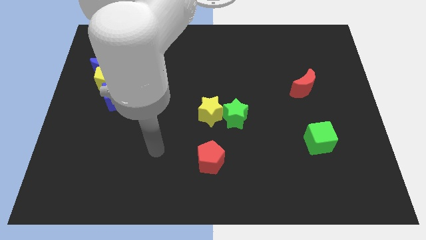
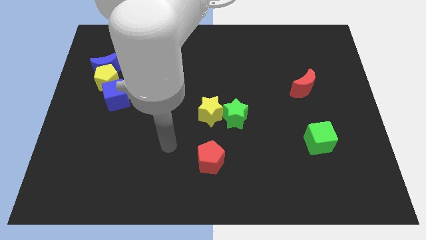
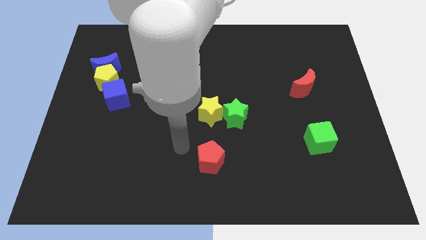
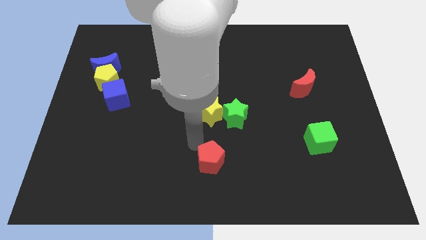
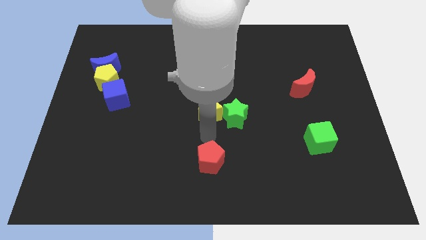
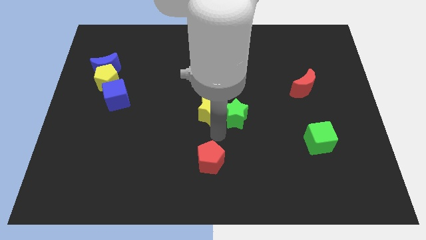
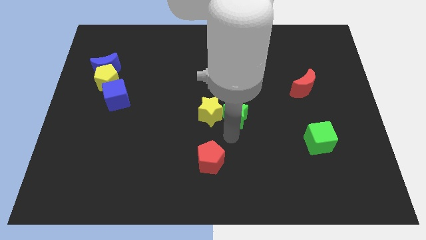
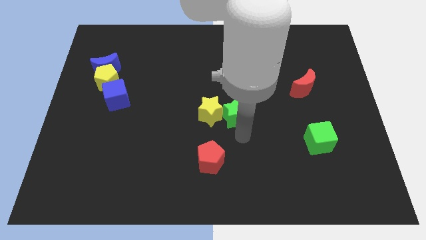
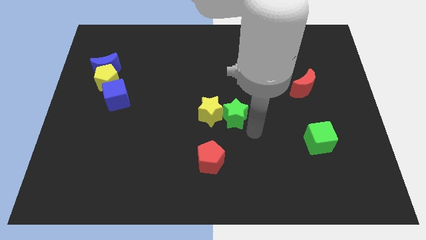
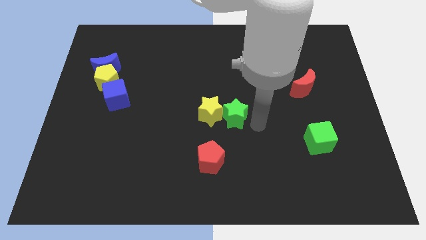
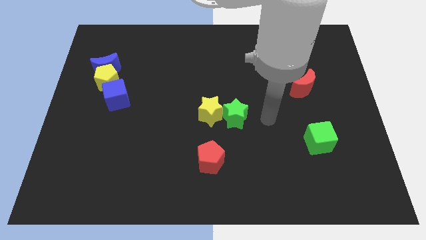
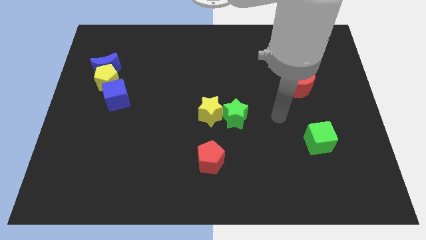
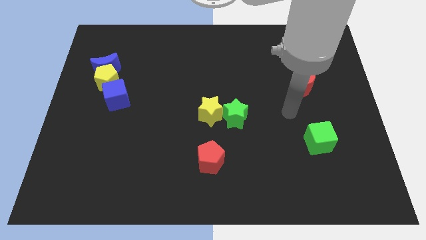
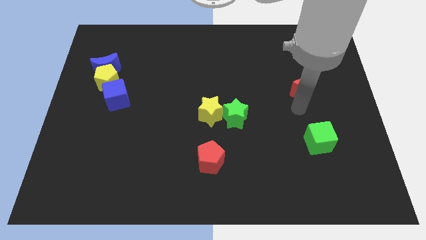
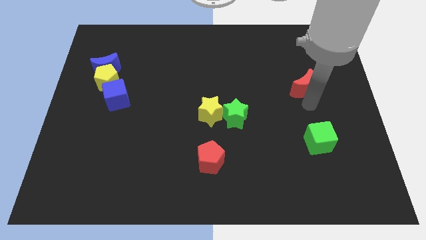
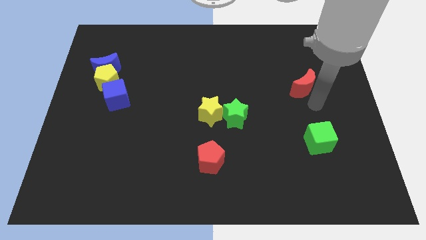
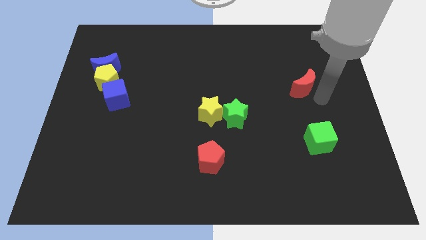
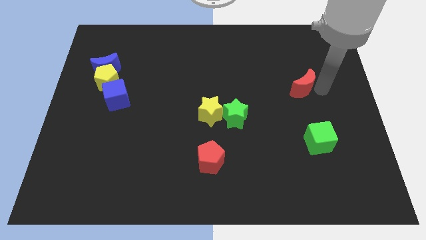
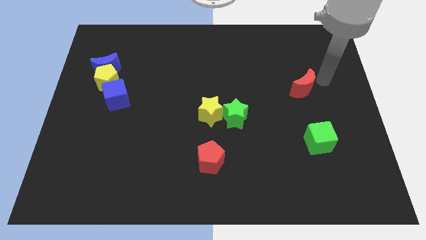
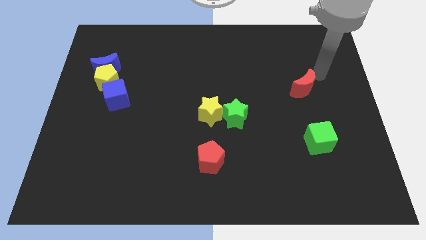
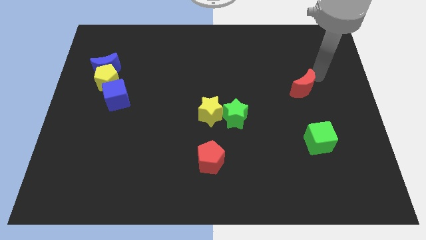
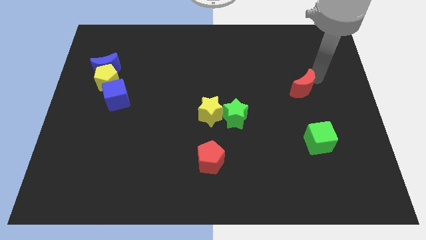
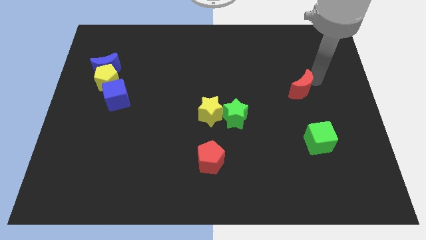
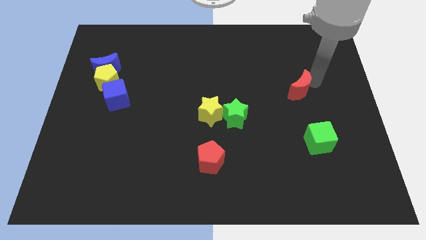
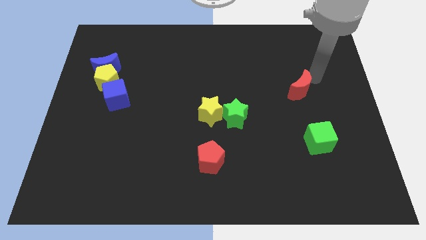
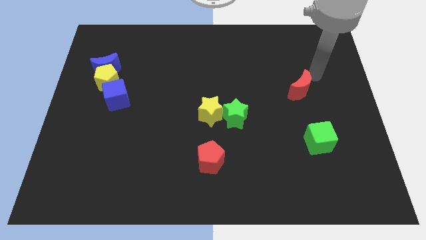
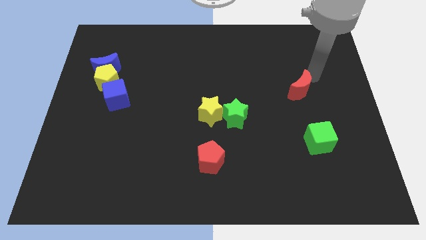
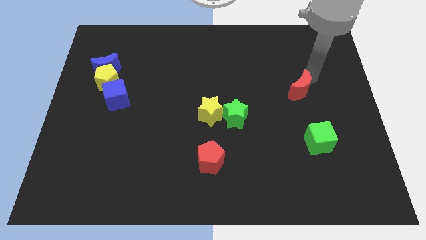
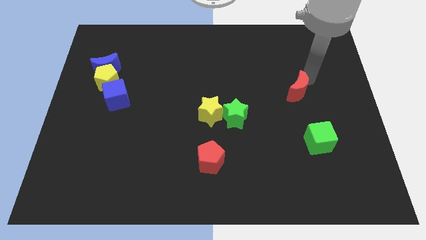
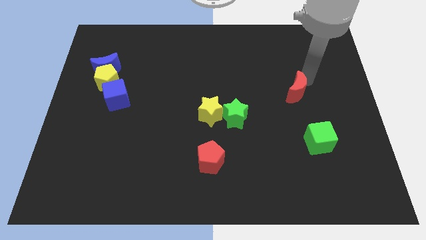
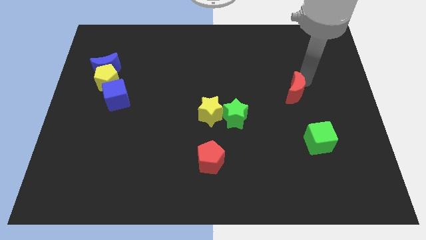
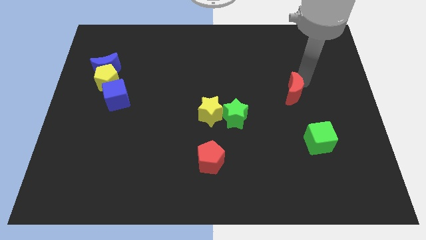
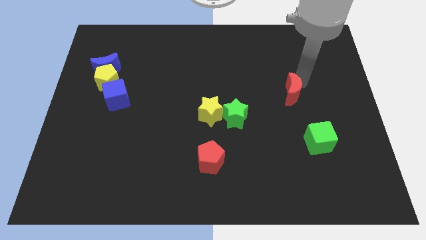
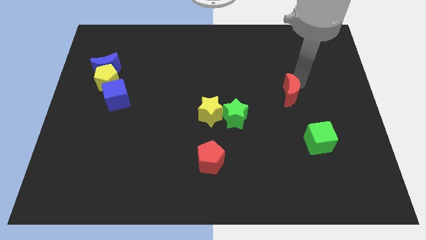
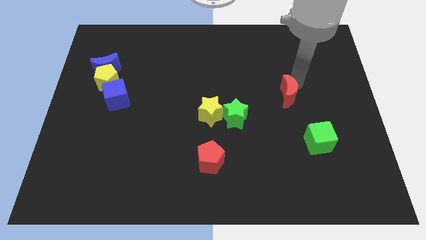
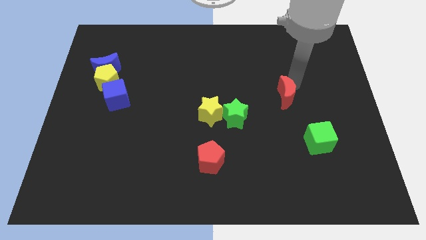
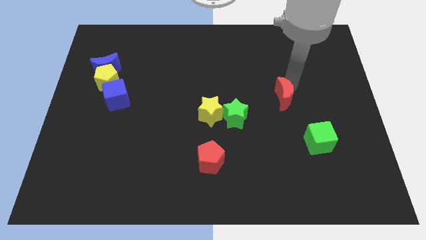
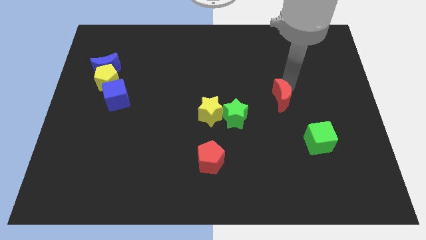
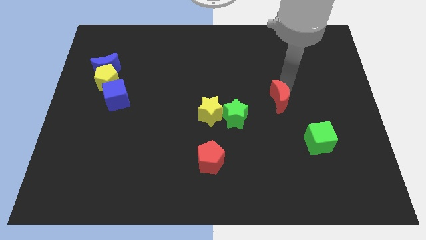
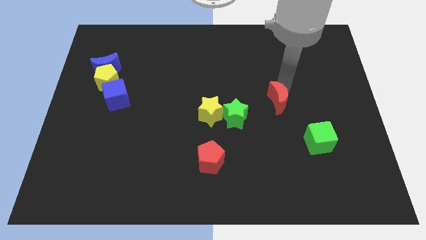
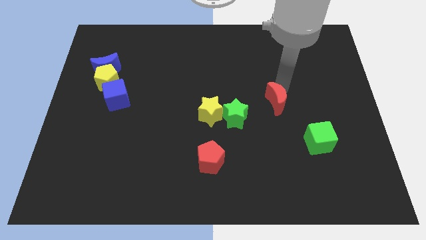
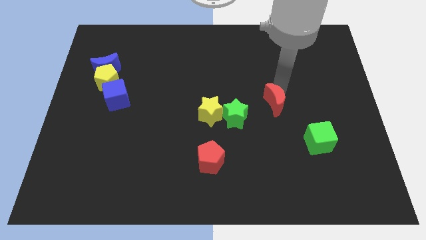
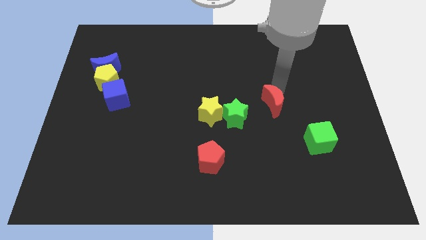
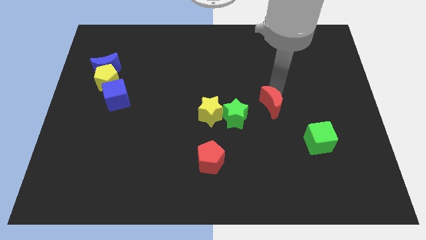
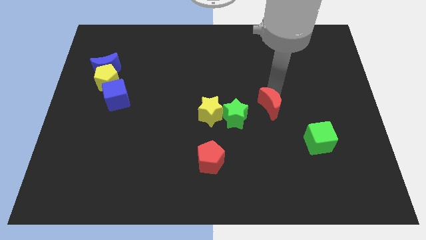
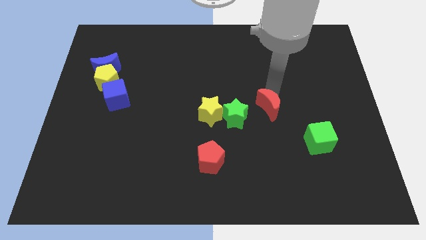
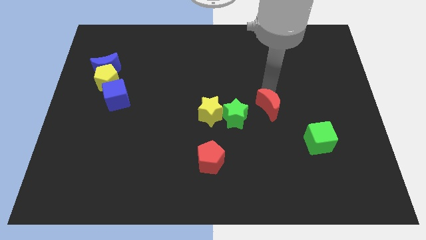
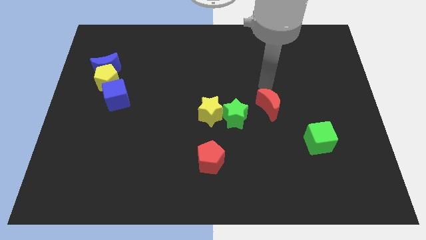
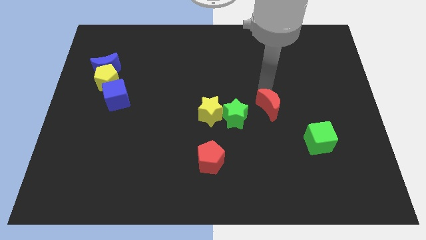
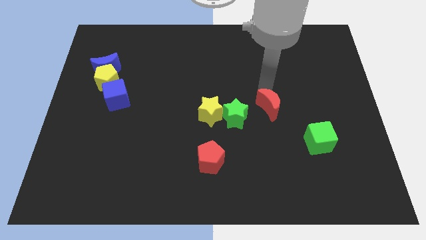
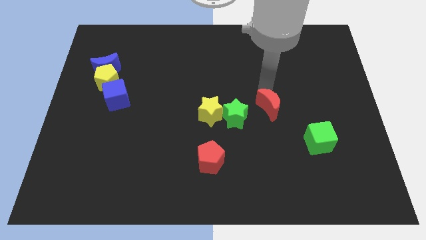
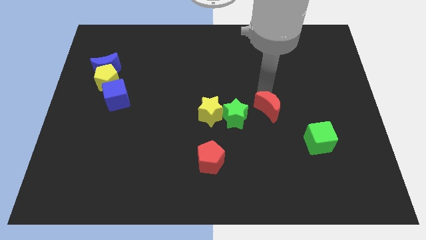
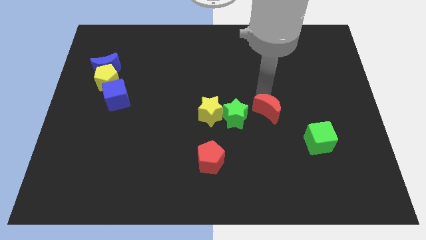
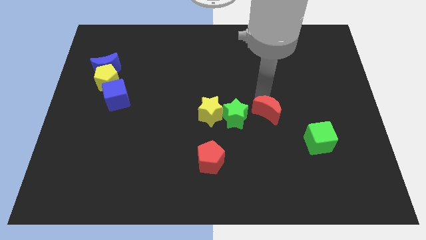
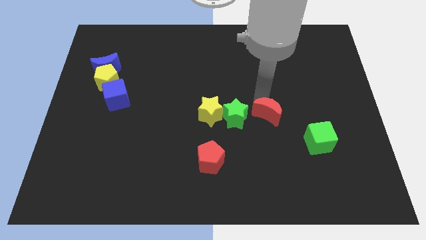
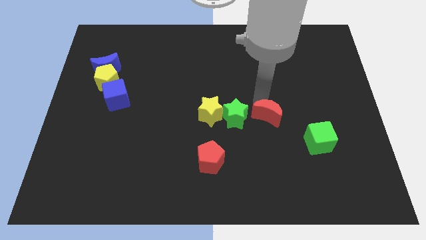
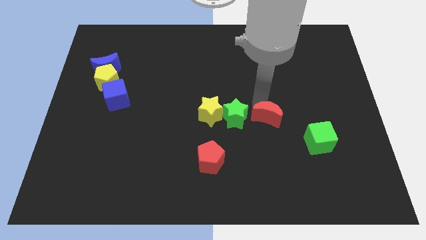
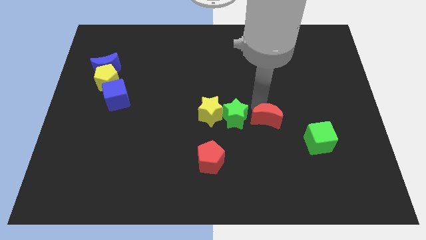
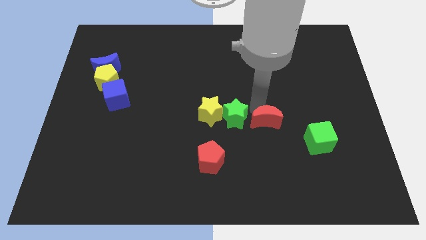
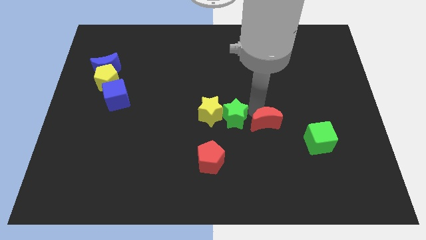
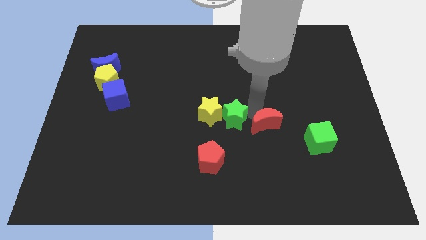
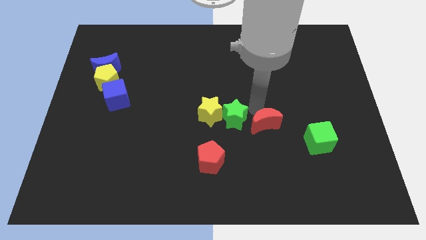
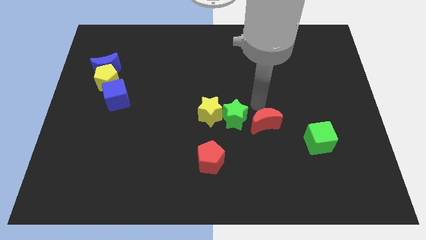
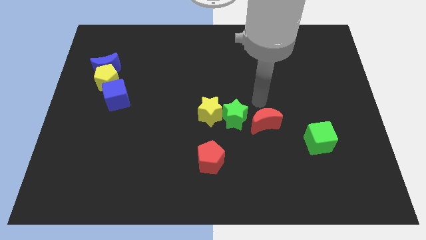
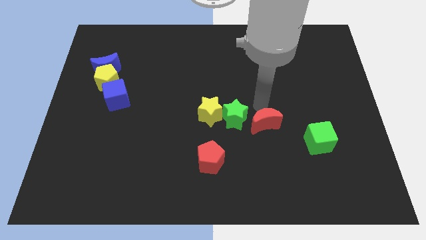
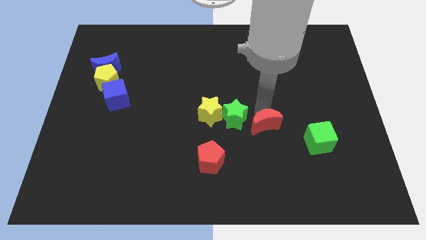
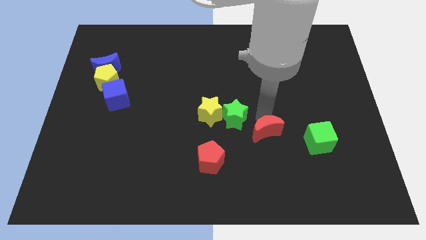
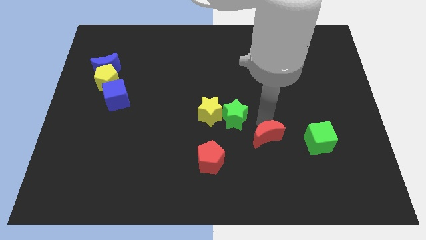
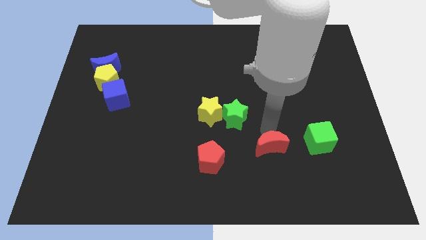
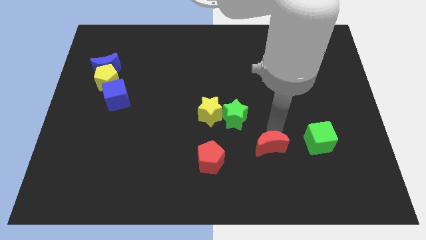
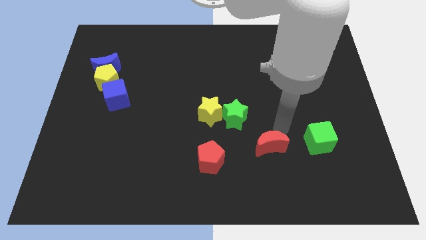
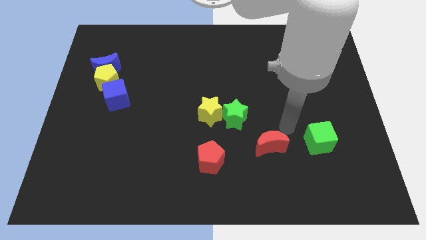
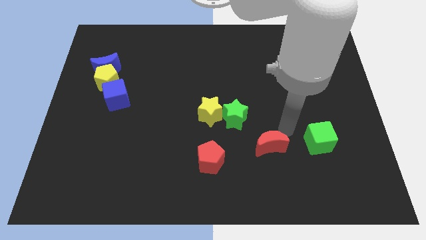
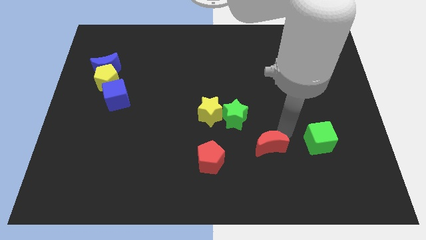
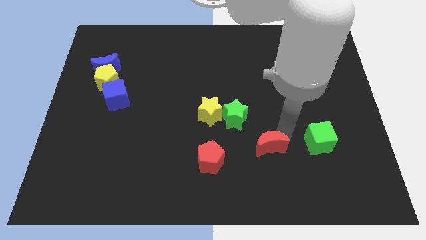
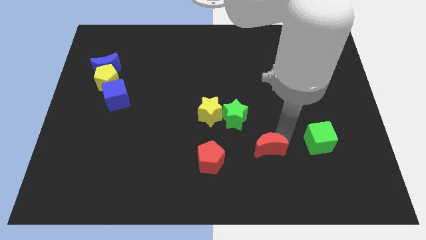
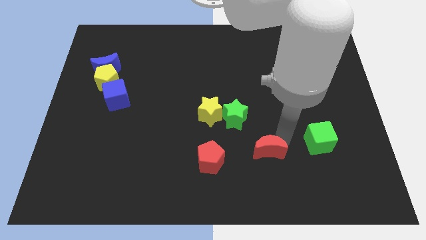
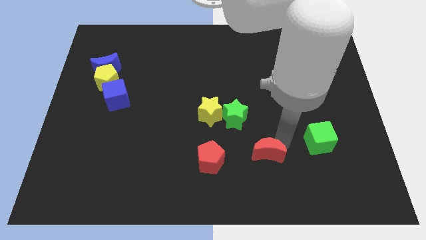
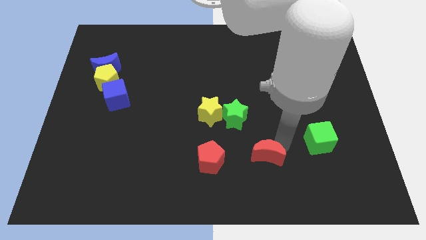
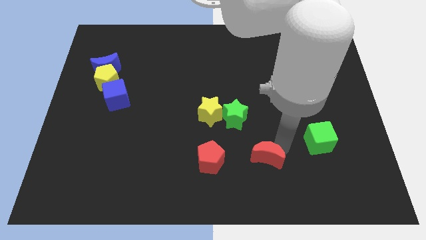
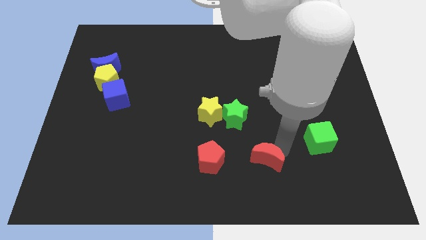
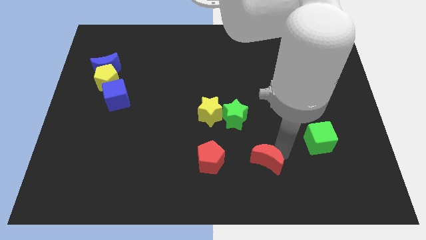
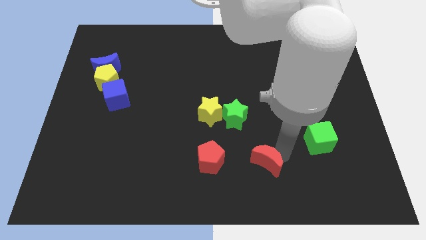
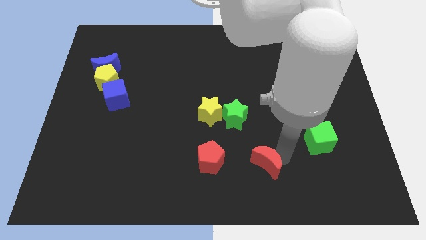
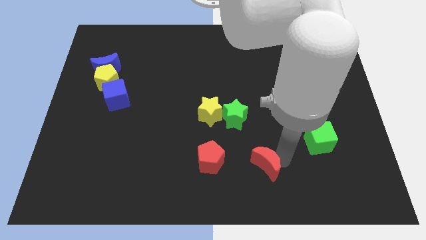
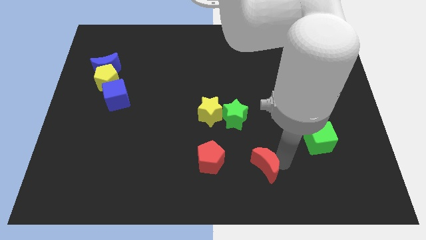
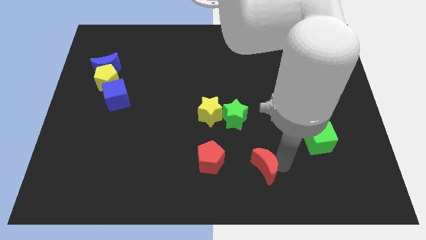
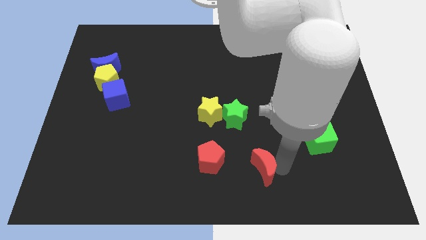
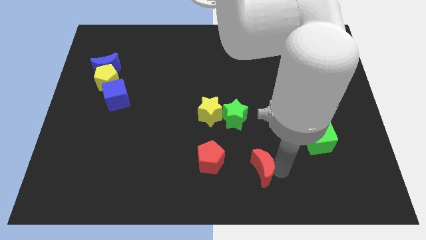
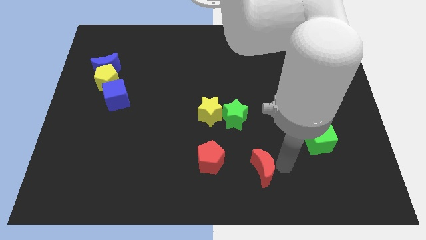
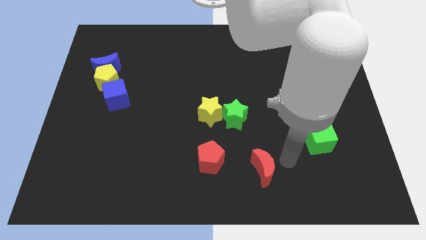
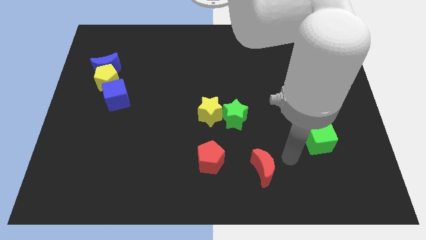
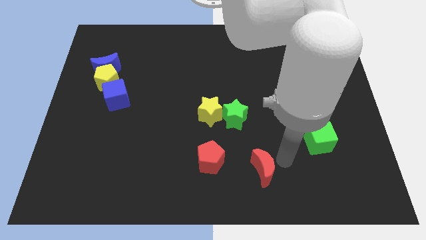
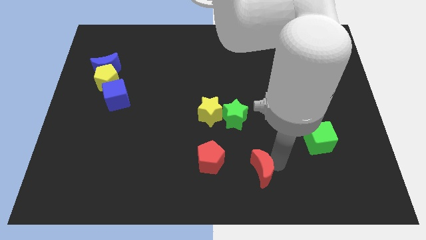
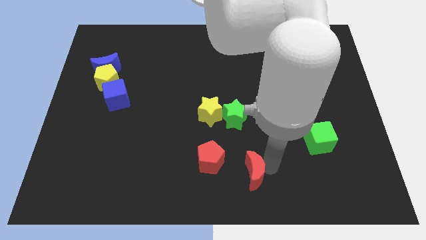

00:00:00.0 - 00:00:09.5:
move the red moon diagonally down and to the right of the red pentagon
